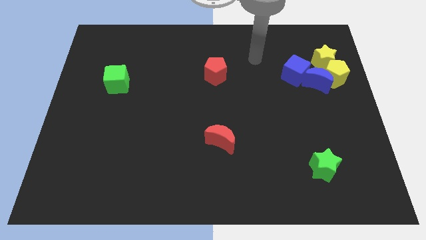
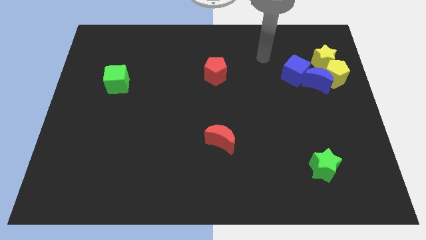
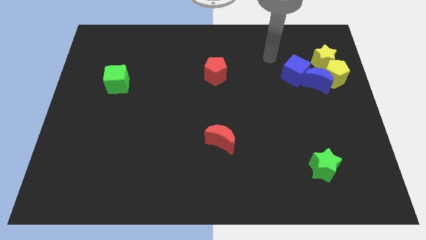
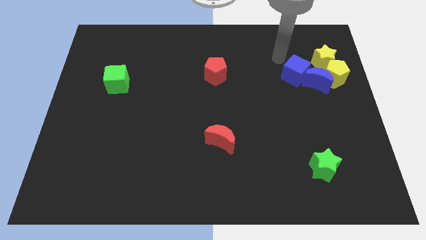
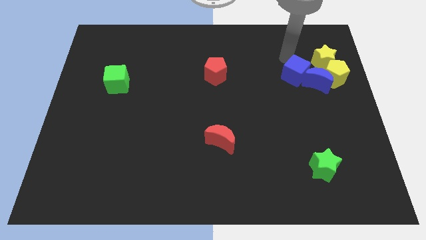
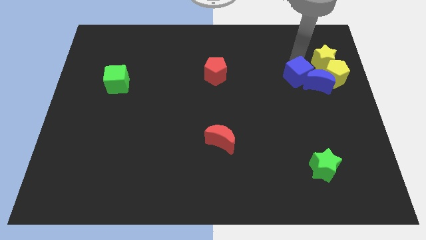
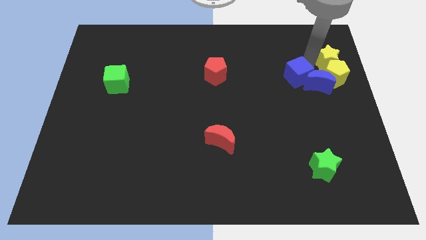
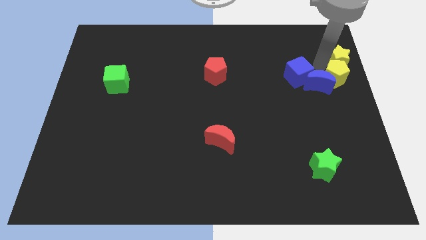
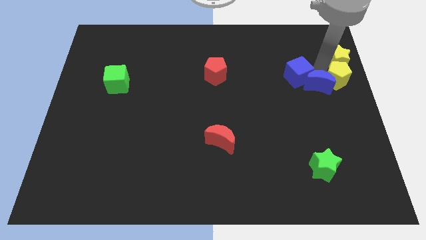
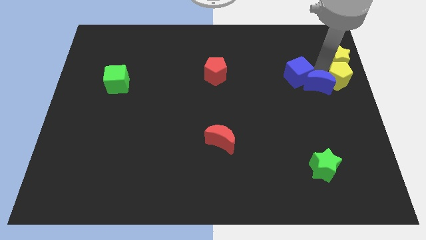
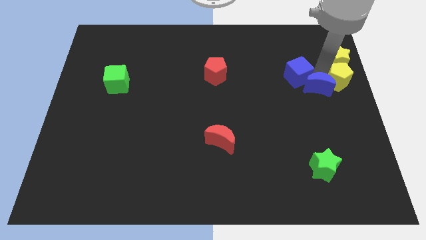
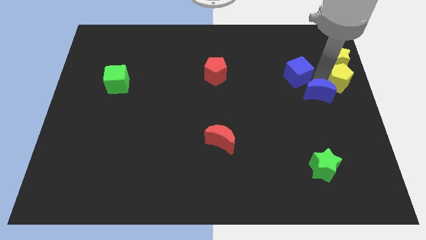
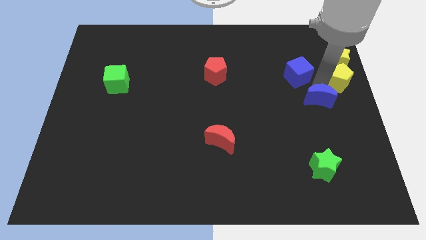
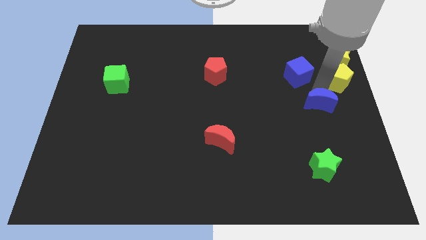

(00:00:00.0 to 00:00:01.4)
pull the blue moon apart from the group of blocks

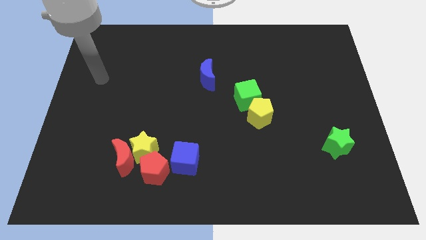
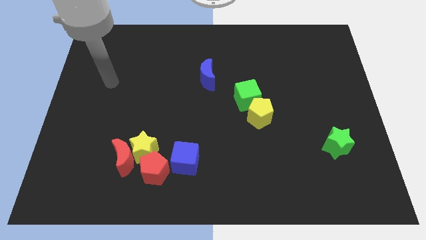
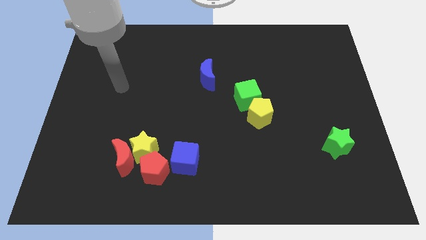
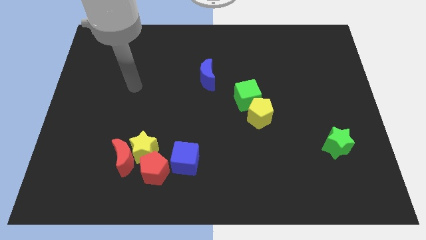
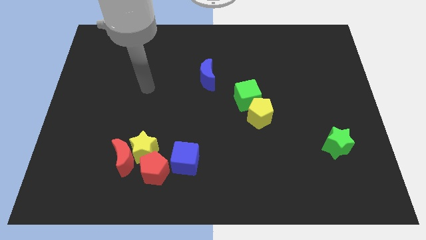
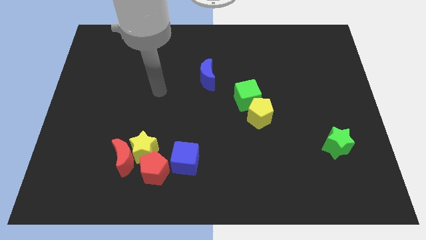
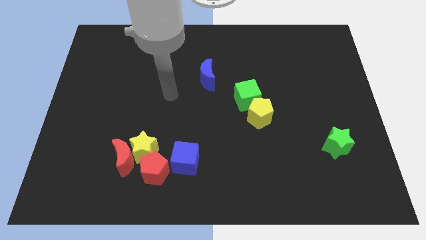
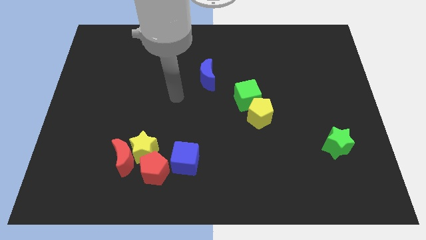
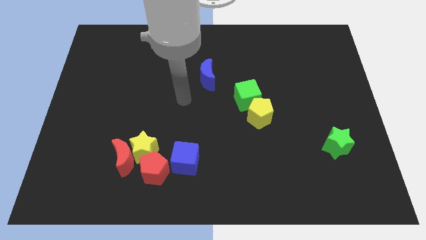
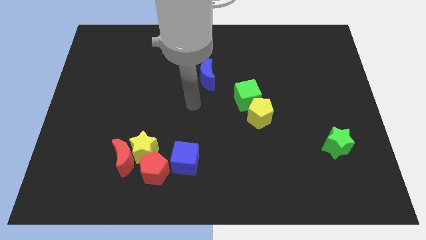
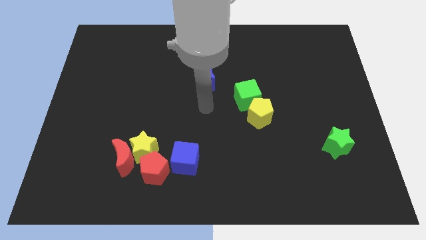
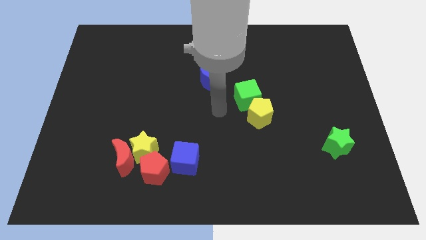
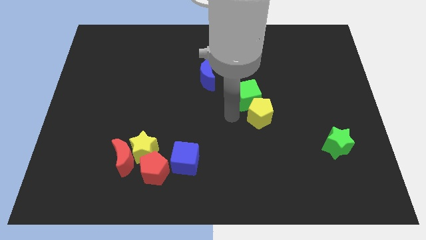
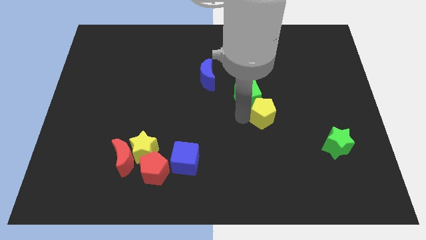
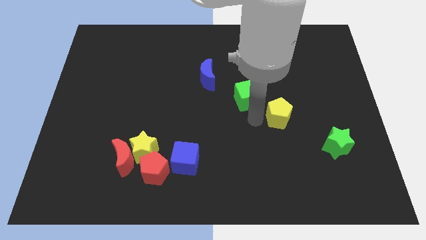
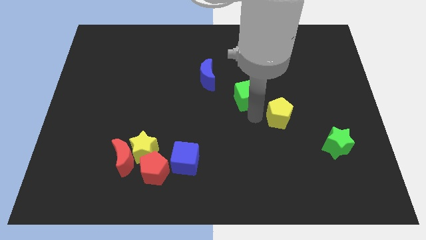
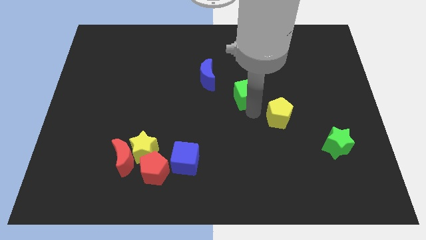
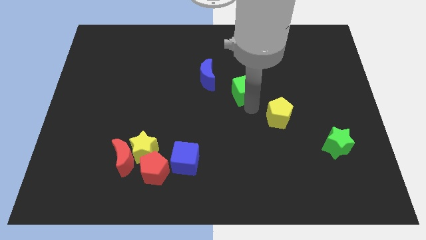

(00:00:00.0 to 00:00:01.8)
separate the green cube from the yellow pentagon

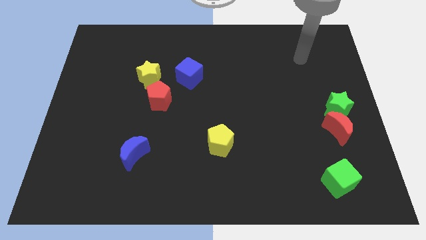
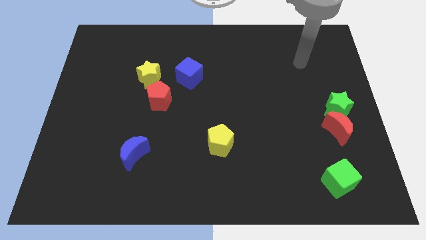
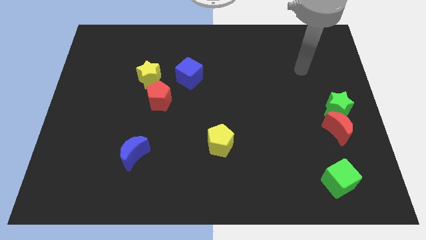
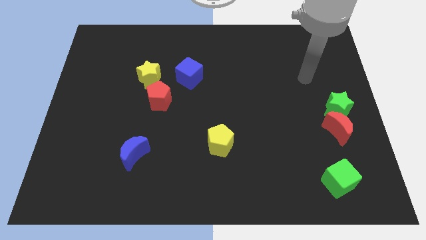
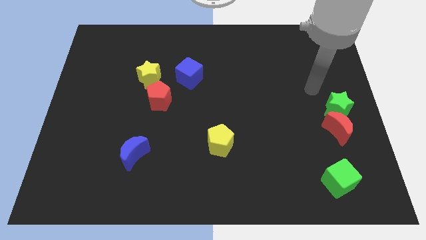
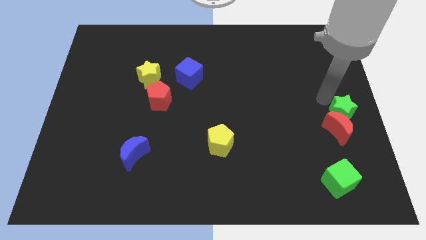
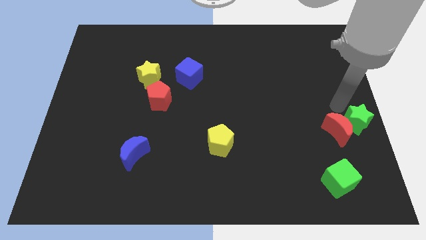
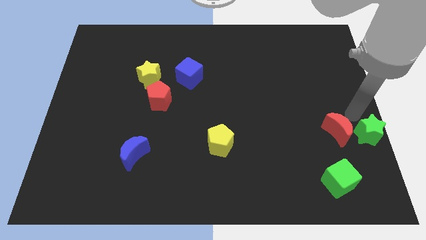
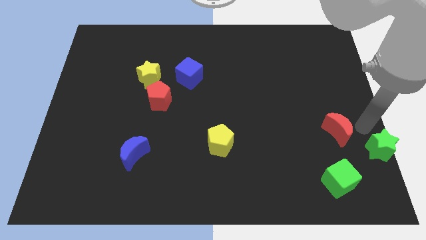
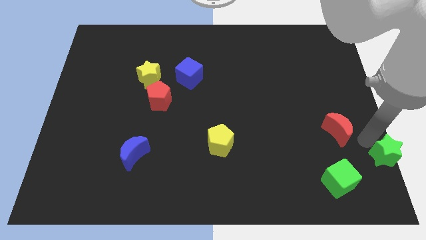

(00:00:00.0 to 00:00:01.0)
pull the red moon apart from the green star

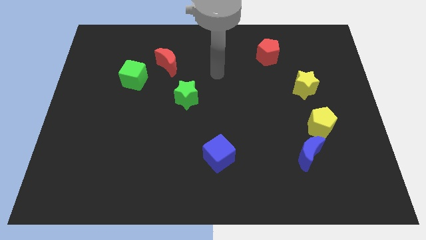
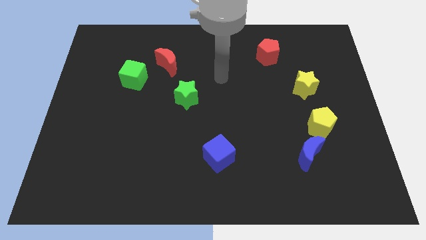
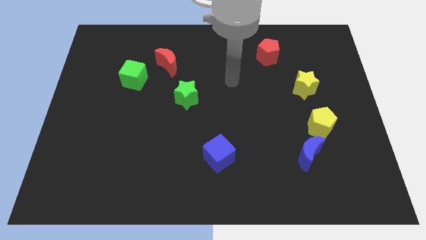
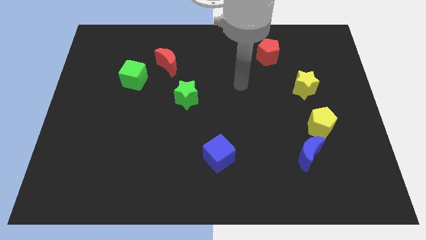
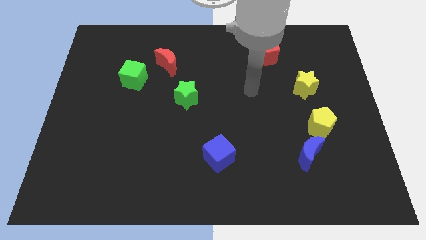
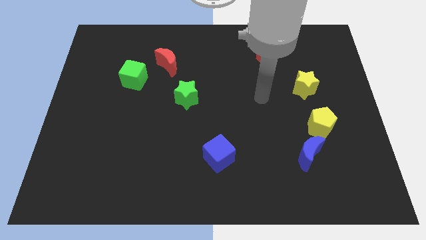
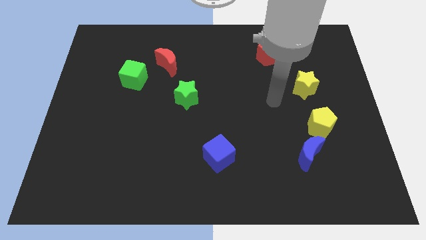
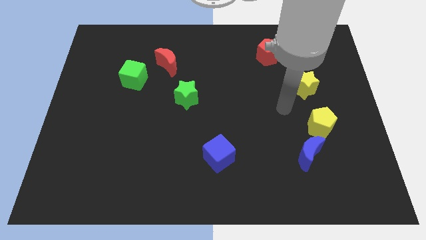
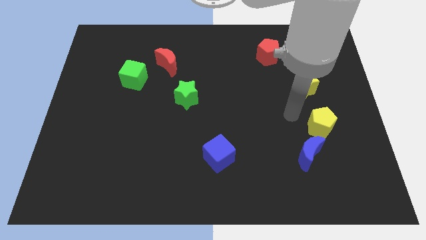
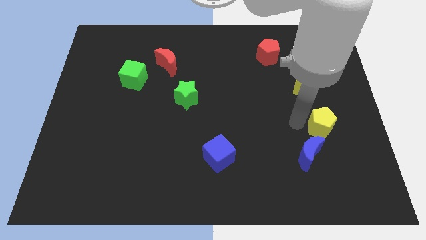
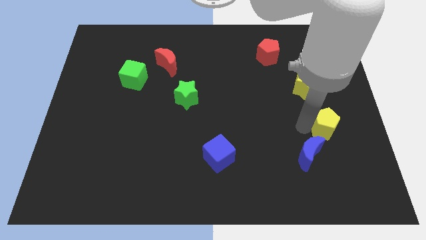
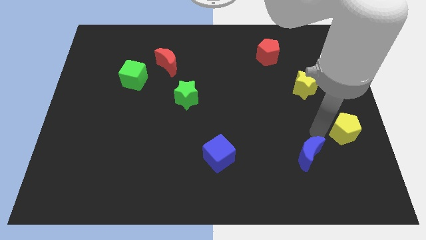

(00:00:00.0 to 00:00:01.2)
move the blue moon away from the yellow pentagon

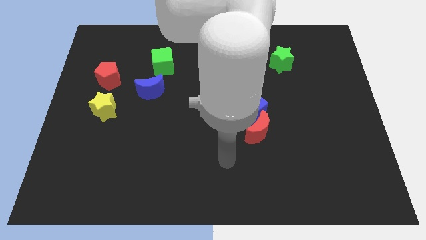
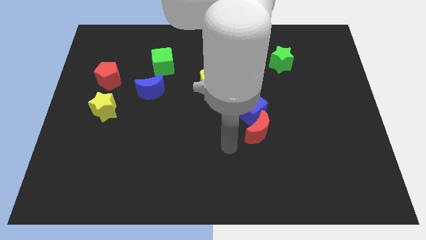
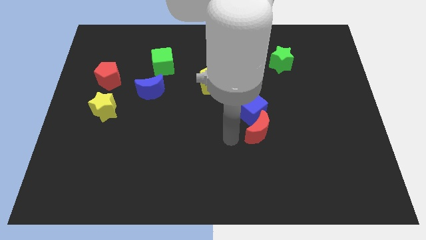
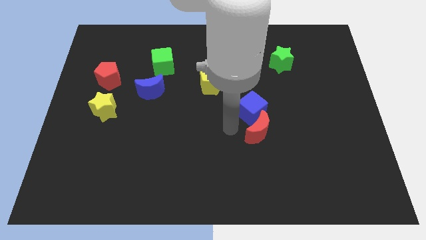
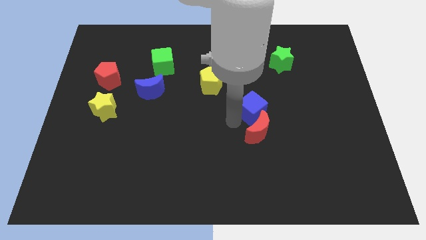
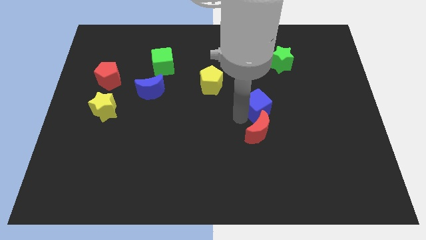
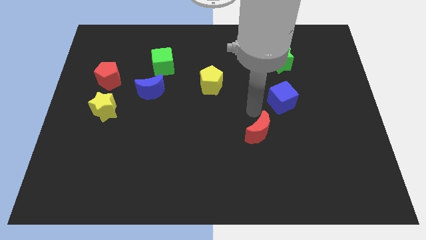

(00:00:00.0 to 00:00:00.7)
move the red moon away from the blue cube

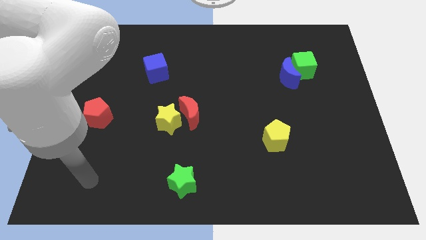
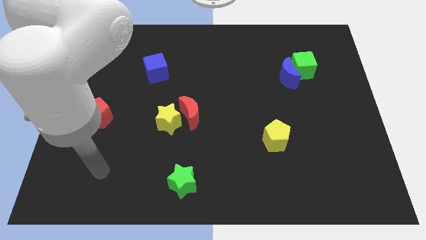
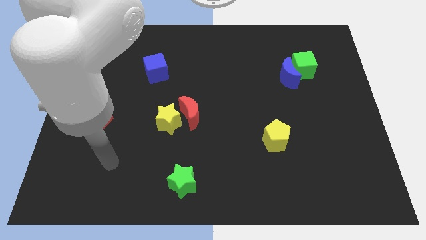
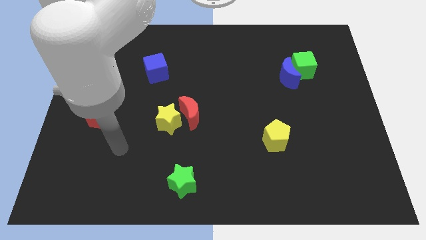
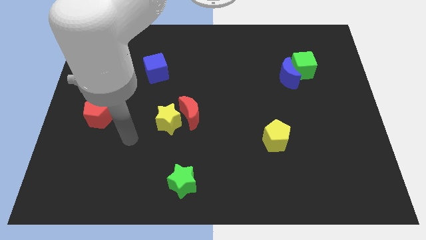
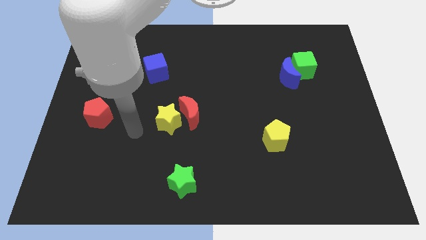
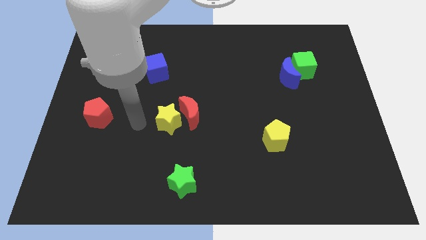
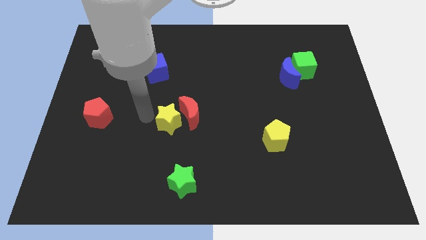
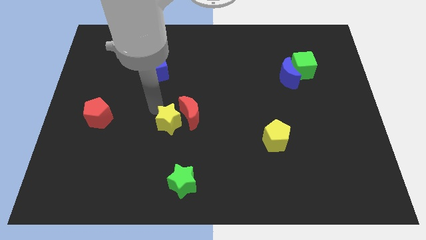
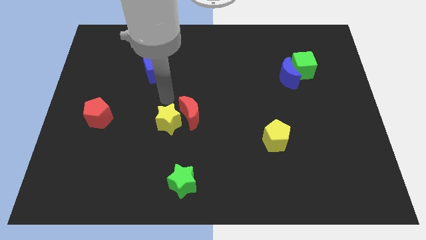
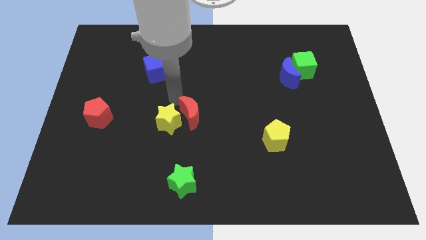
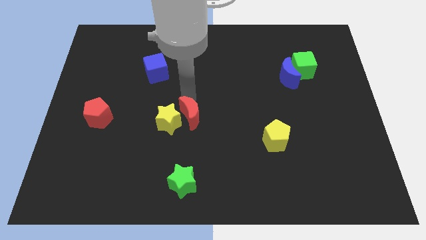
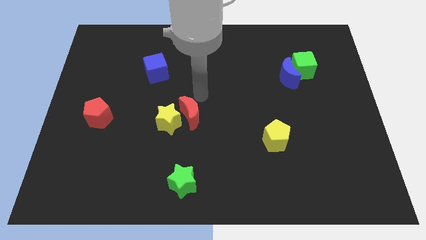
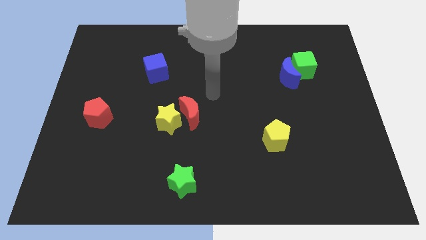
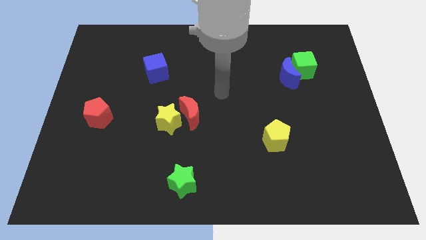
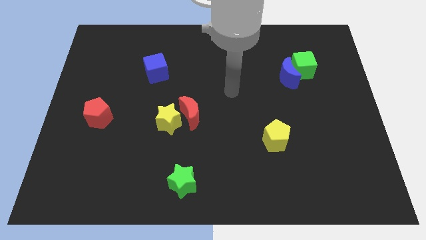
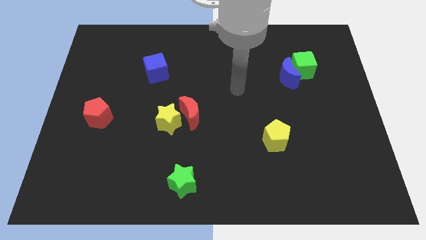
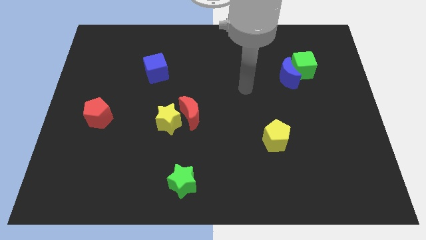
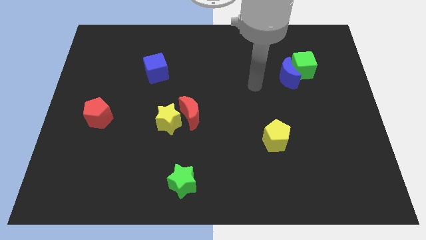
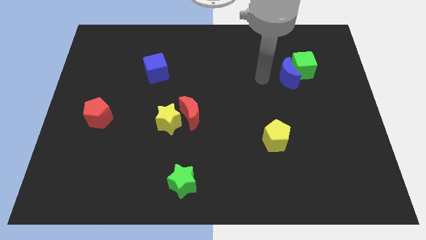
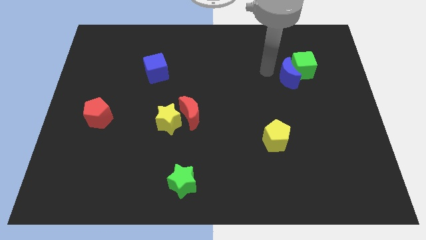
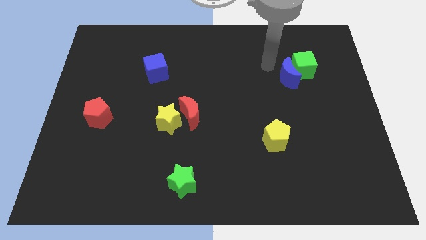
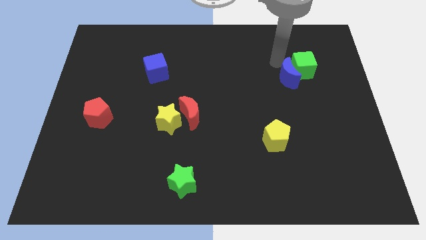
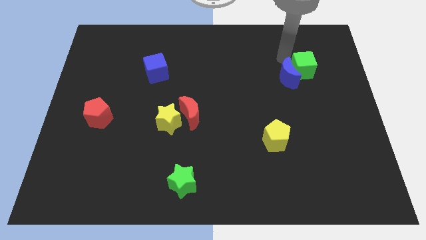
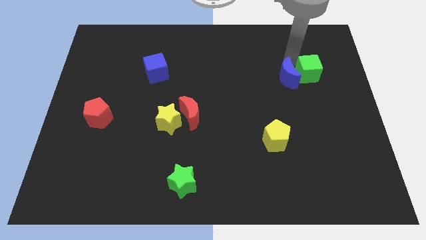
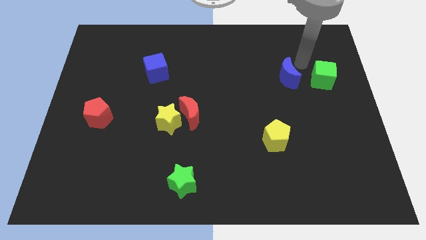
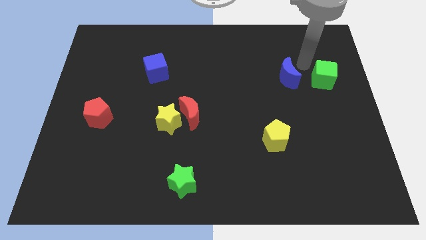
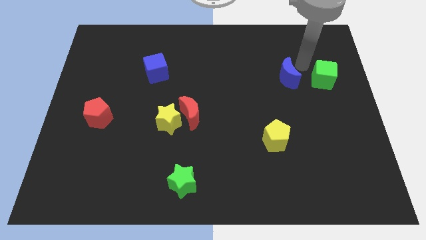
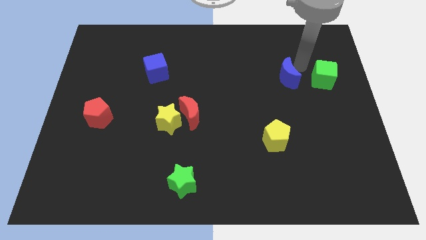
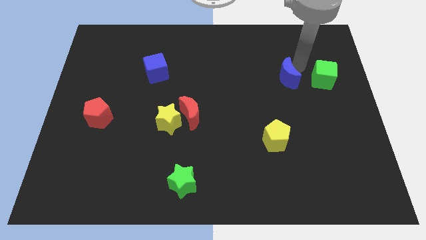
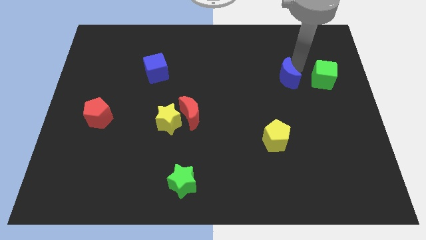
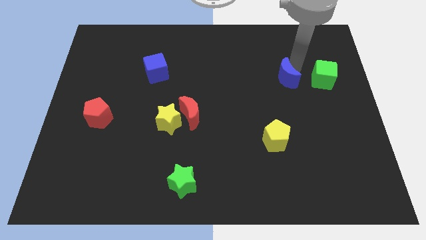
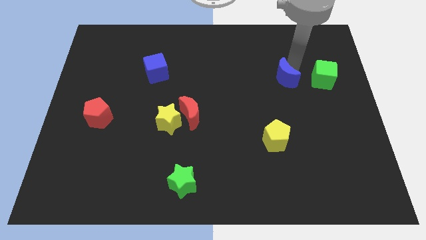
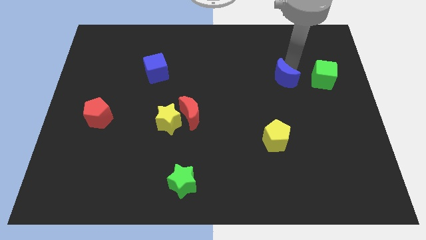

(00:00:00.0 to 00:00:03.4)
move the blue moon away from the green cube
